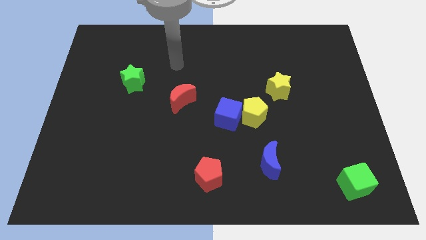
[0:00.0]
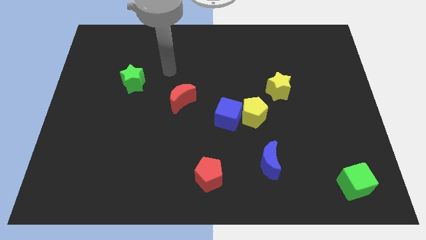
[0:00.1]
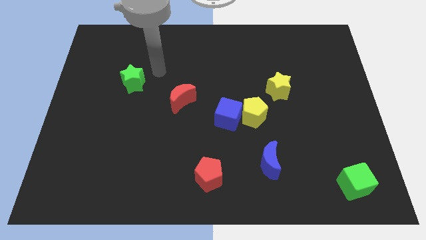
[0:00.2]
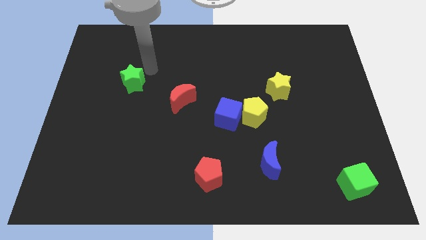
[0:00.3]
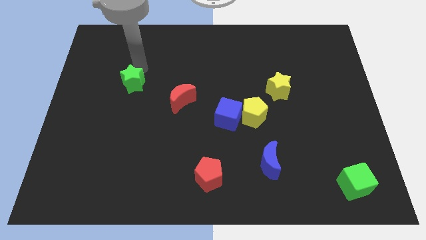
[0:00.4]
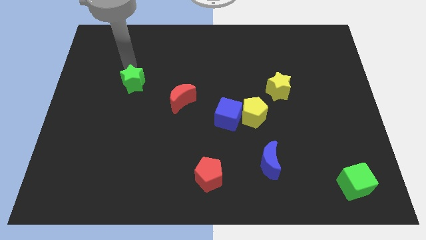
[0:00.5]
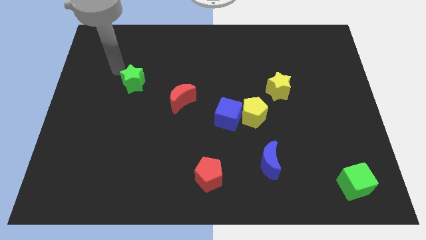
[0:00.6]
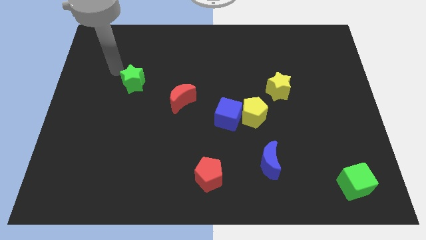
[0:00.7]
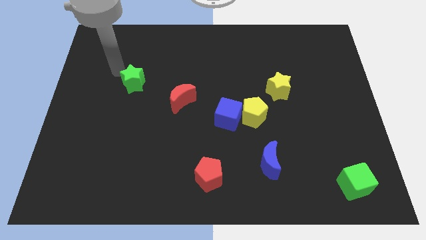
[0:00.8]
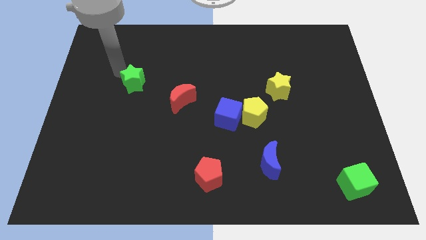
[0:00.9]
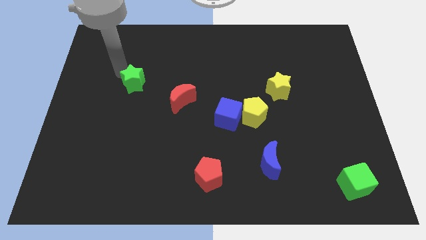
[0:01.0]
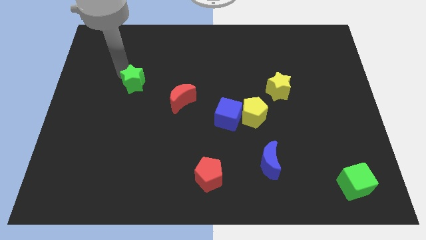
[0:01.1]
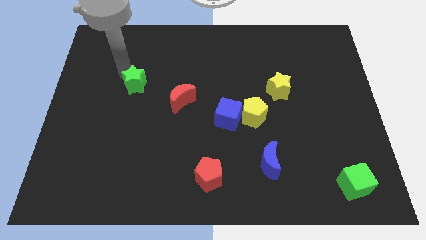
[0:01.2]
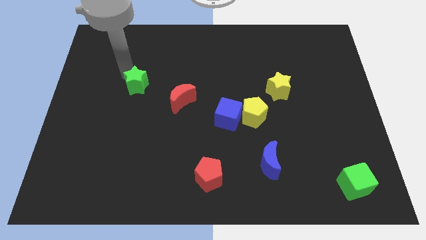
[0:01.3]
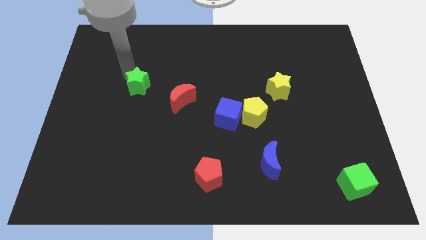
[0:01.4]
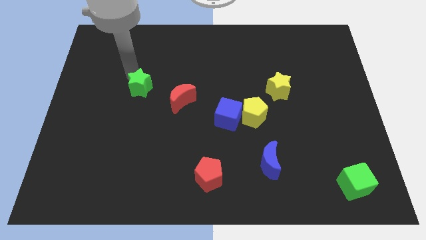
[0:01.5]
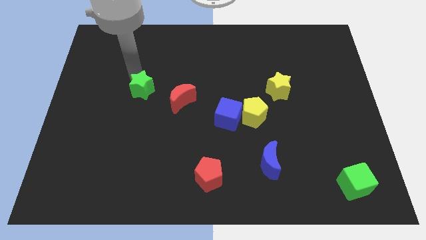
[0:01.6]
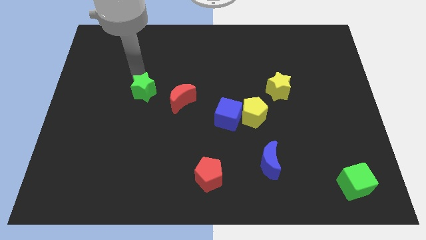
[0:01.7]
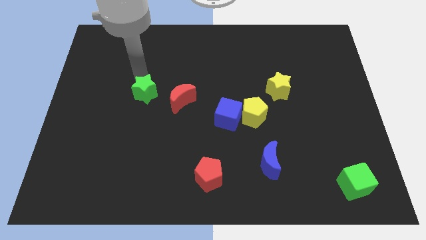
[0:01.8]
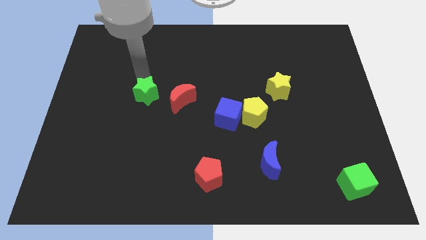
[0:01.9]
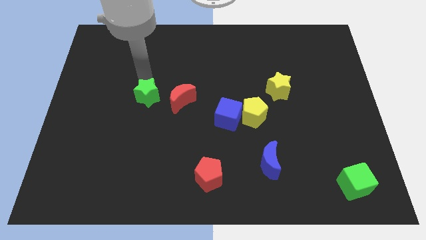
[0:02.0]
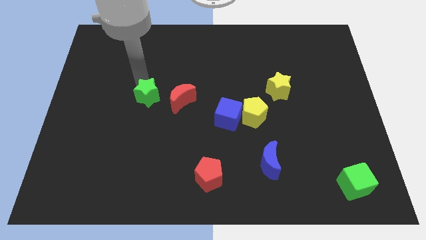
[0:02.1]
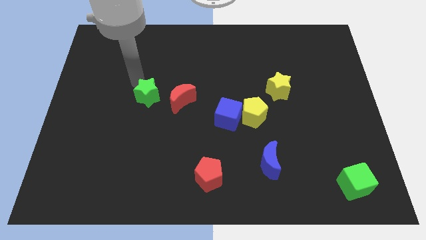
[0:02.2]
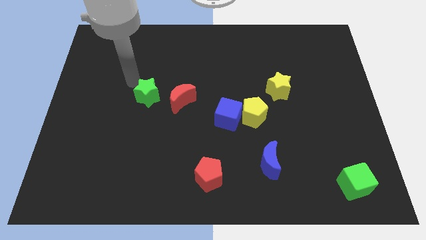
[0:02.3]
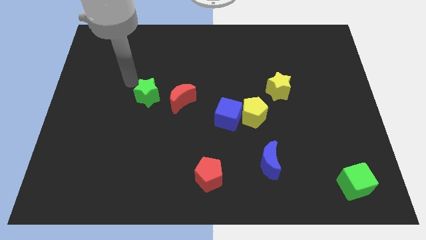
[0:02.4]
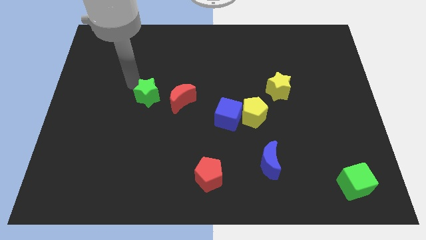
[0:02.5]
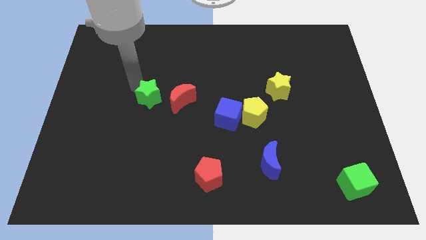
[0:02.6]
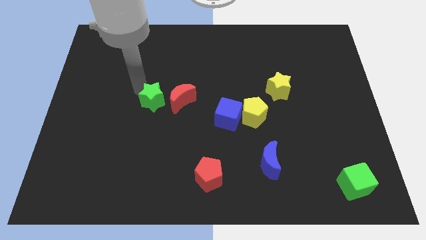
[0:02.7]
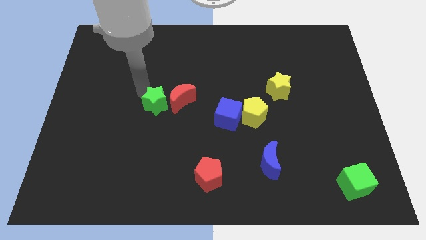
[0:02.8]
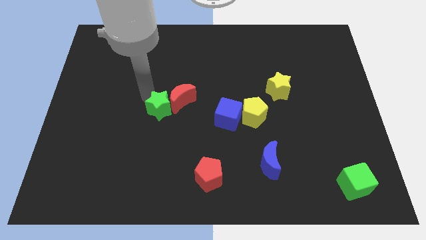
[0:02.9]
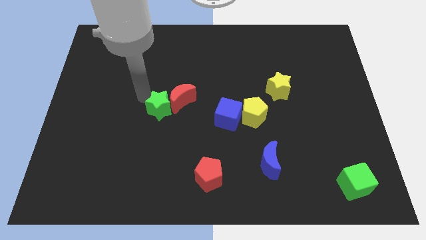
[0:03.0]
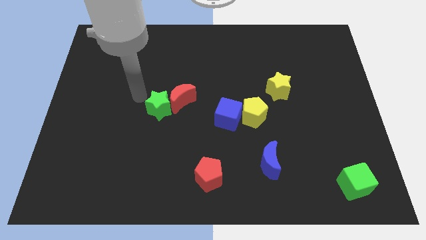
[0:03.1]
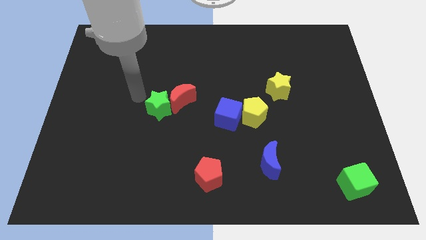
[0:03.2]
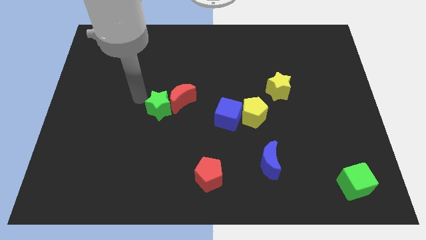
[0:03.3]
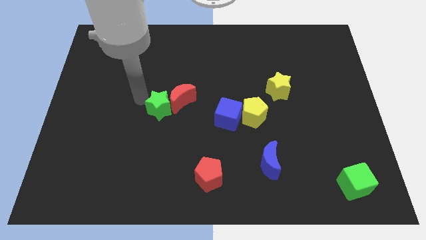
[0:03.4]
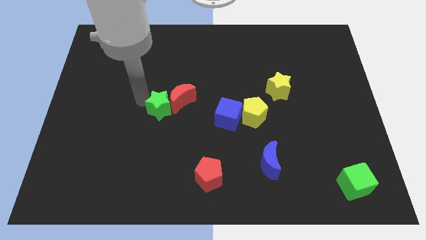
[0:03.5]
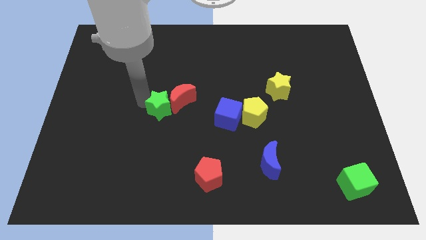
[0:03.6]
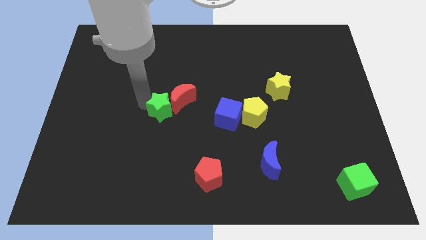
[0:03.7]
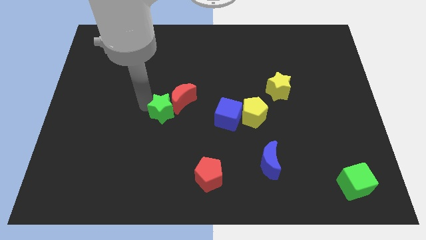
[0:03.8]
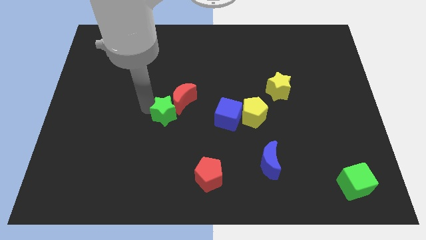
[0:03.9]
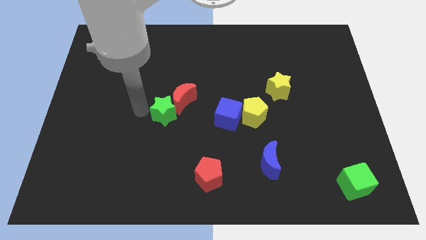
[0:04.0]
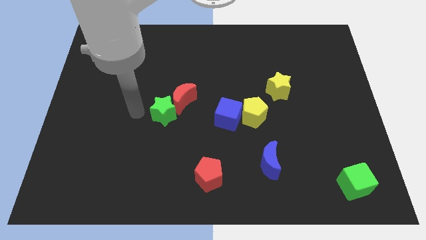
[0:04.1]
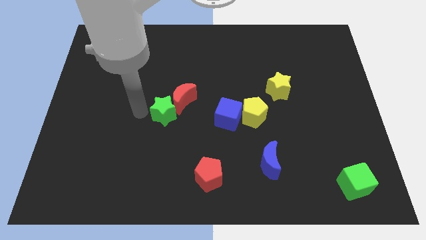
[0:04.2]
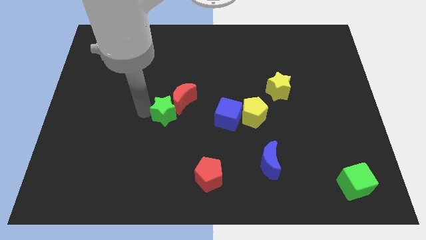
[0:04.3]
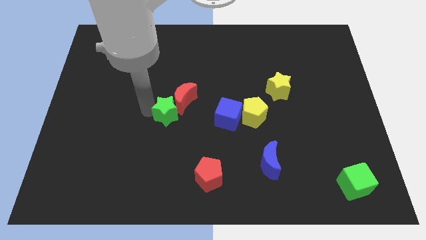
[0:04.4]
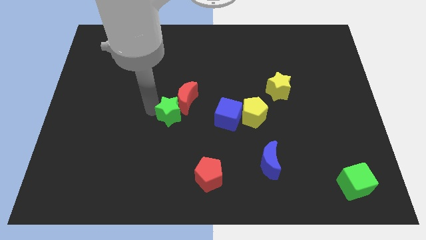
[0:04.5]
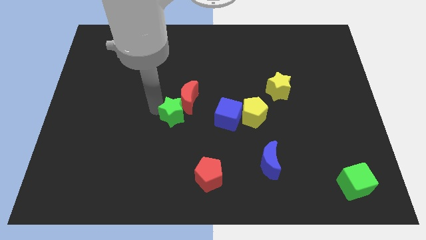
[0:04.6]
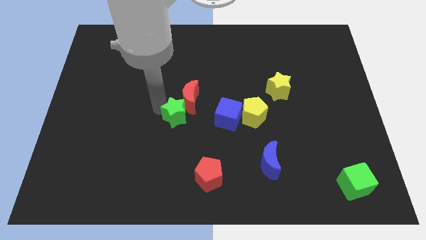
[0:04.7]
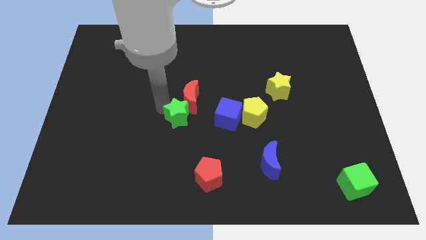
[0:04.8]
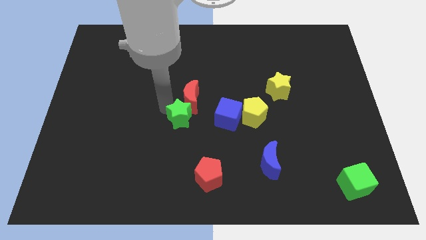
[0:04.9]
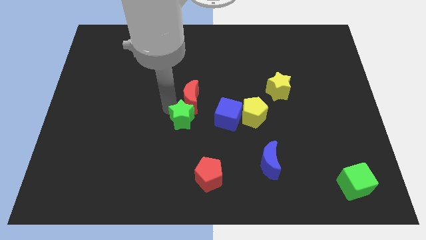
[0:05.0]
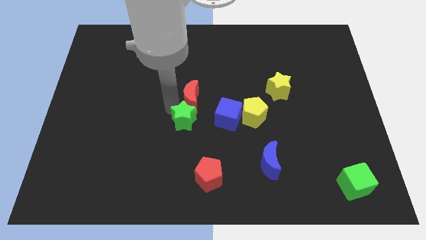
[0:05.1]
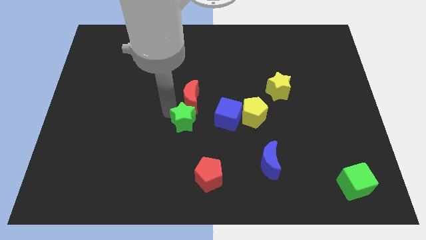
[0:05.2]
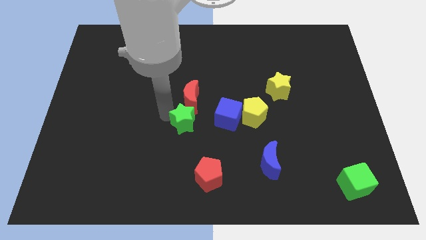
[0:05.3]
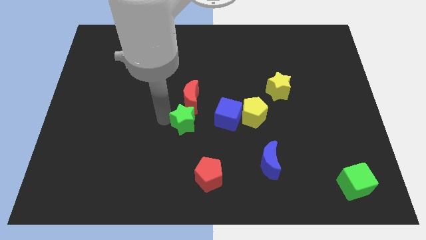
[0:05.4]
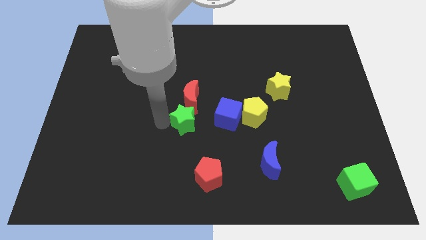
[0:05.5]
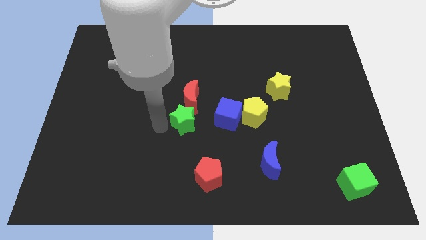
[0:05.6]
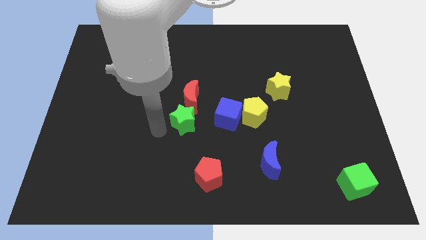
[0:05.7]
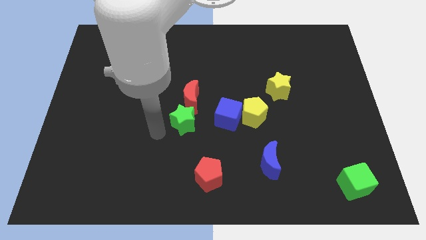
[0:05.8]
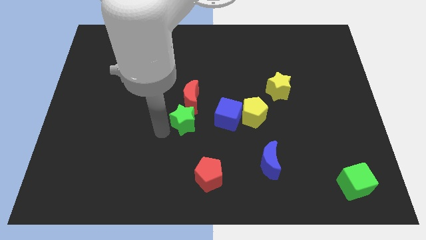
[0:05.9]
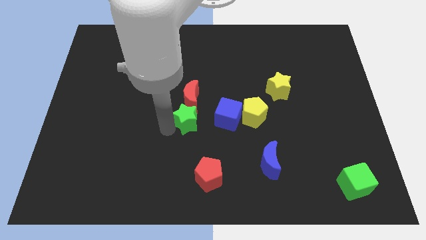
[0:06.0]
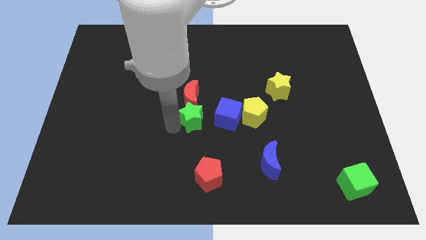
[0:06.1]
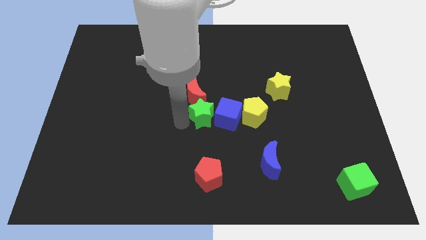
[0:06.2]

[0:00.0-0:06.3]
put the green star close to the blue cube

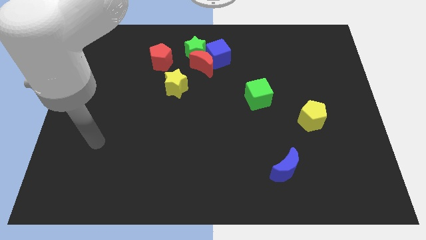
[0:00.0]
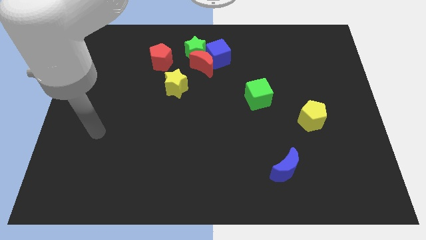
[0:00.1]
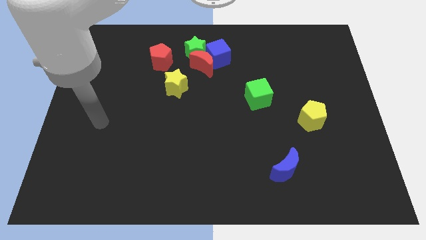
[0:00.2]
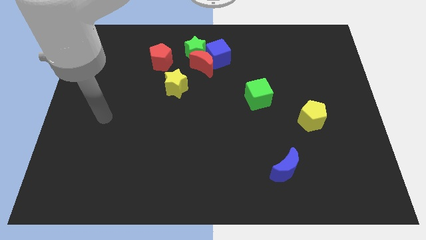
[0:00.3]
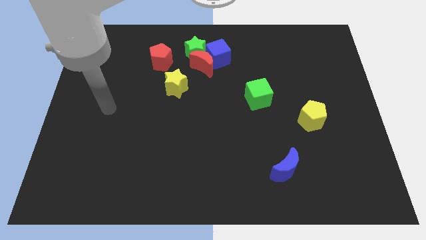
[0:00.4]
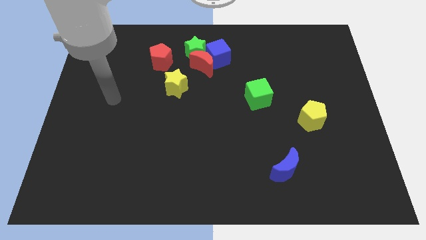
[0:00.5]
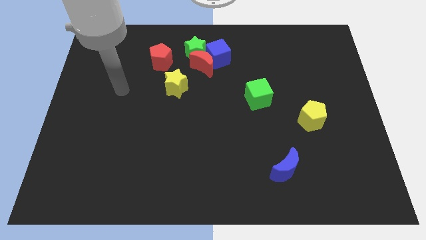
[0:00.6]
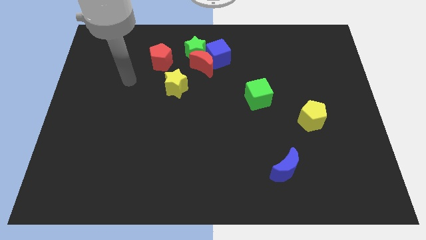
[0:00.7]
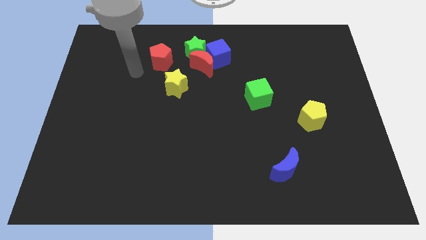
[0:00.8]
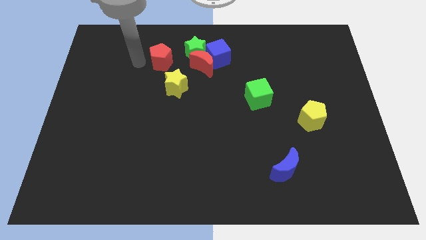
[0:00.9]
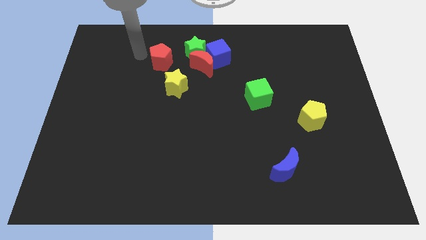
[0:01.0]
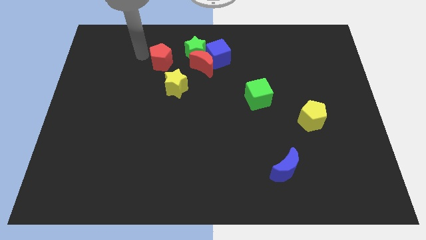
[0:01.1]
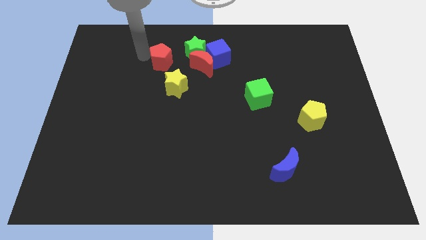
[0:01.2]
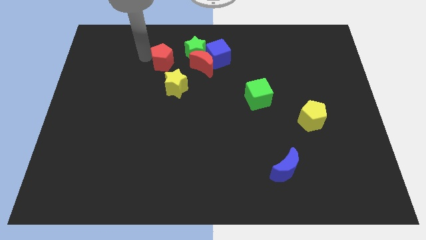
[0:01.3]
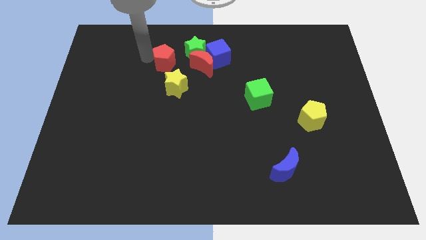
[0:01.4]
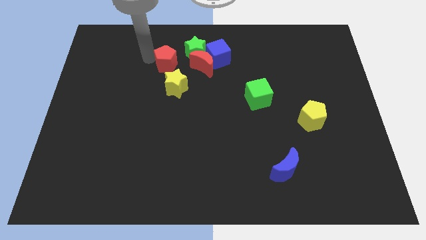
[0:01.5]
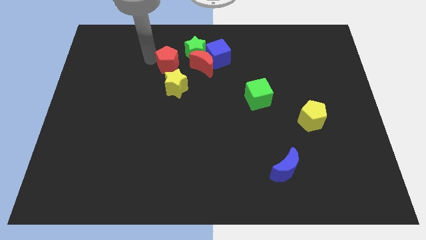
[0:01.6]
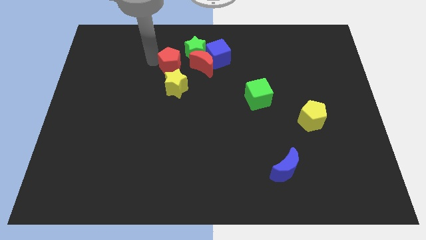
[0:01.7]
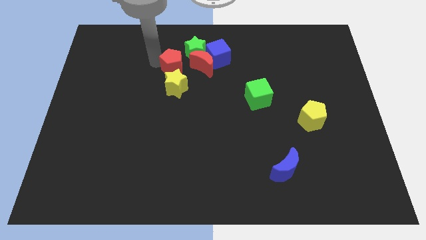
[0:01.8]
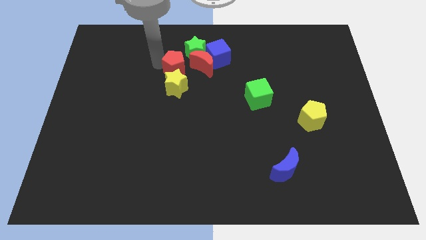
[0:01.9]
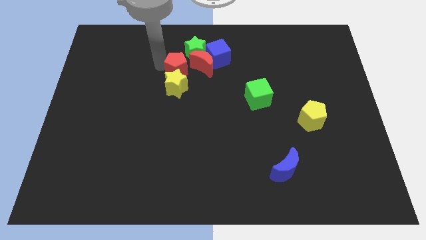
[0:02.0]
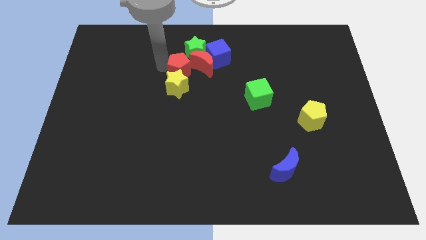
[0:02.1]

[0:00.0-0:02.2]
move the red pentagon close to the red moon
